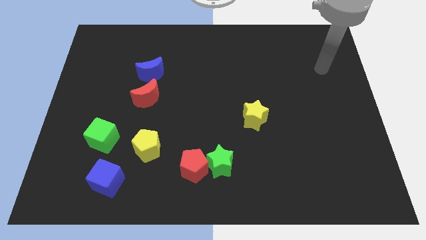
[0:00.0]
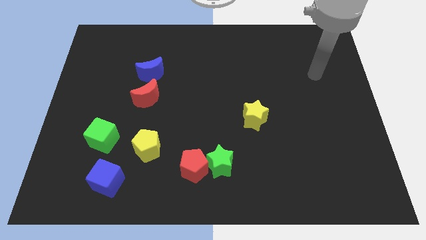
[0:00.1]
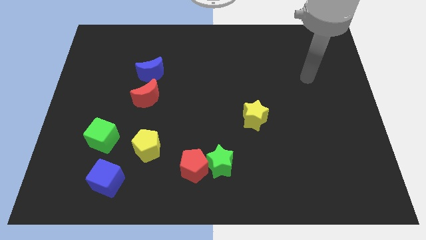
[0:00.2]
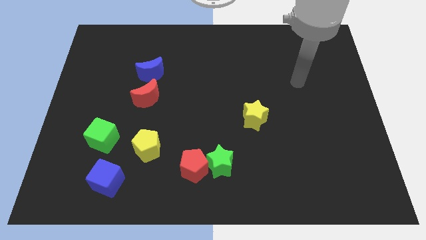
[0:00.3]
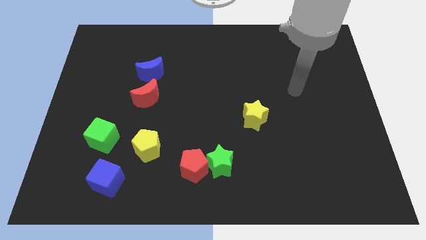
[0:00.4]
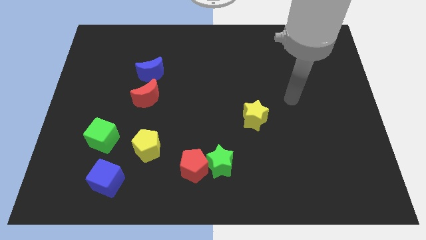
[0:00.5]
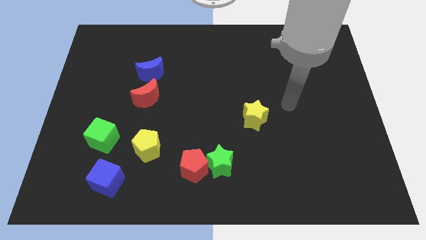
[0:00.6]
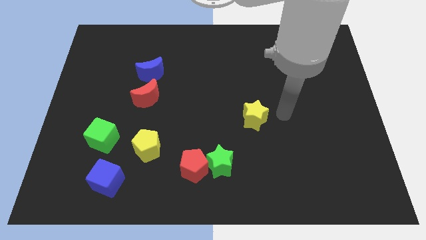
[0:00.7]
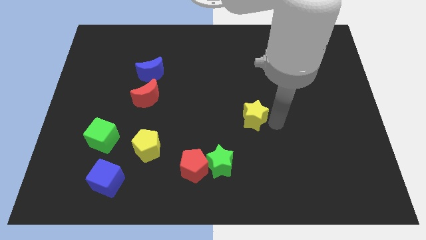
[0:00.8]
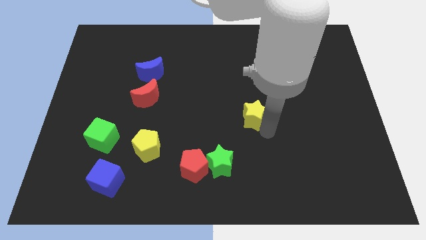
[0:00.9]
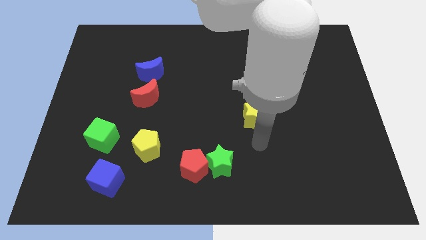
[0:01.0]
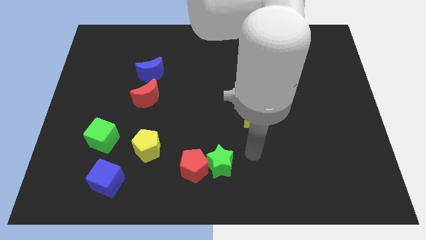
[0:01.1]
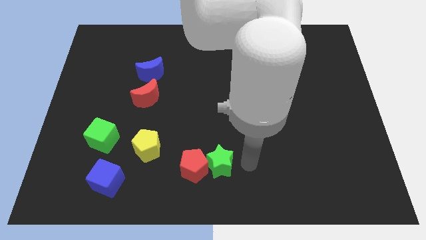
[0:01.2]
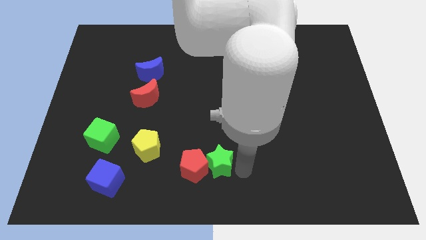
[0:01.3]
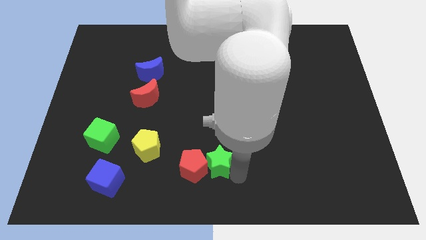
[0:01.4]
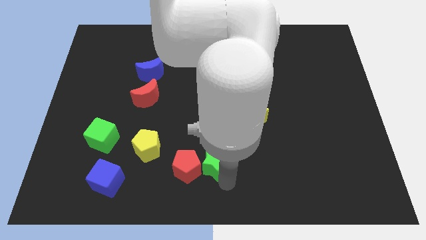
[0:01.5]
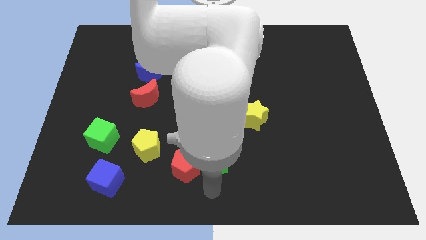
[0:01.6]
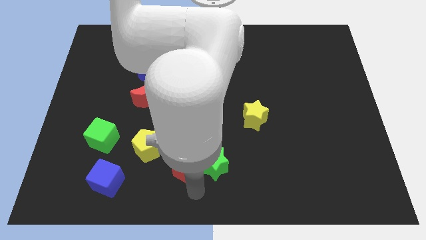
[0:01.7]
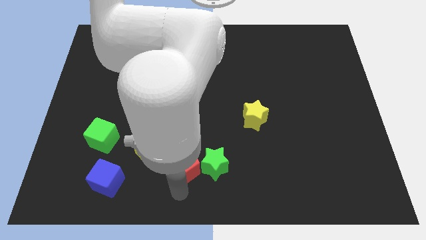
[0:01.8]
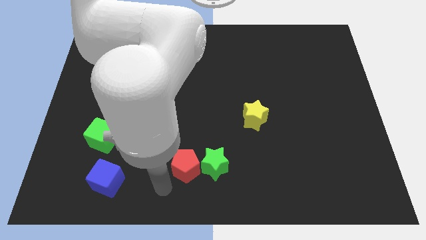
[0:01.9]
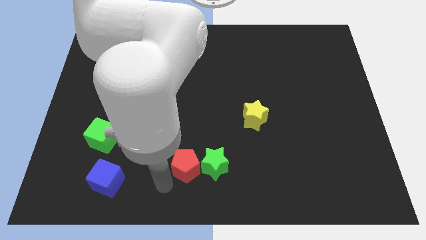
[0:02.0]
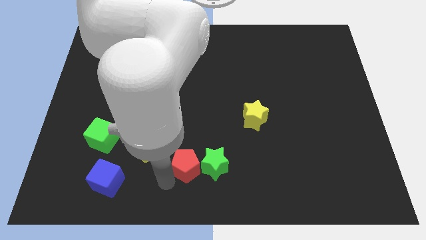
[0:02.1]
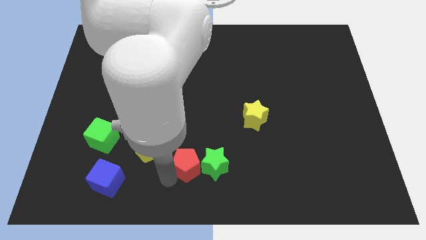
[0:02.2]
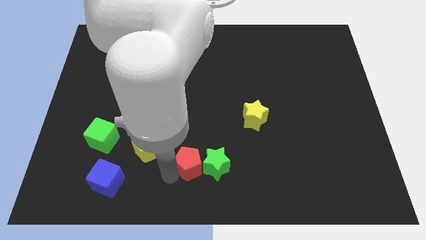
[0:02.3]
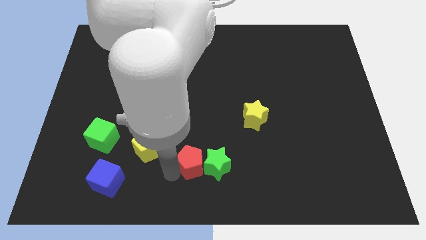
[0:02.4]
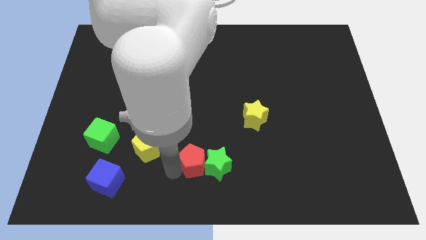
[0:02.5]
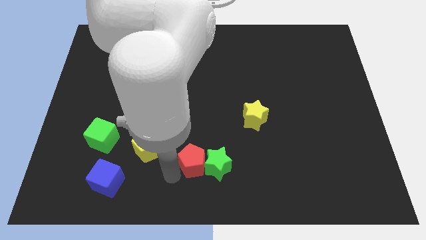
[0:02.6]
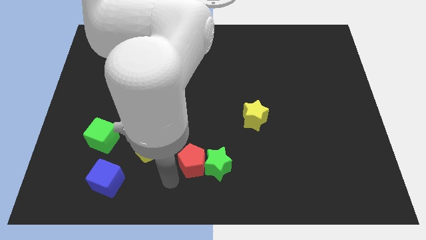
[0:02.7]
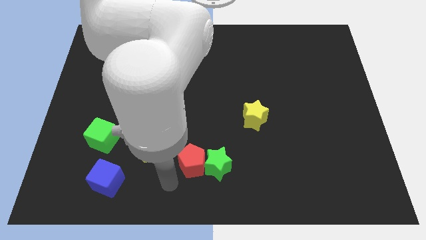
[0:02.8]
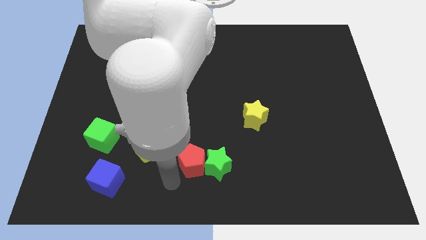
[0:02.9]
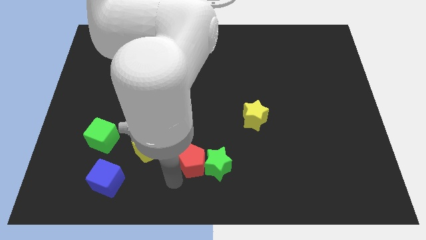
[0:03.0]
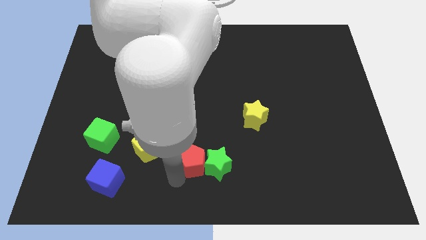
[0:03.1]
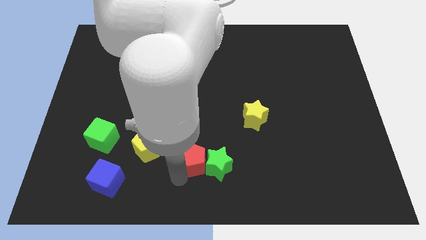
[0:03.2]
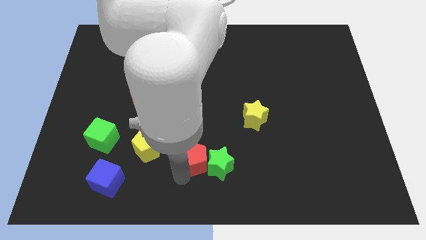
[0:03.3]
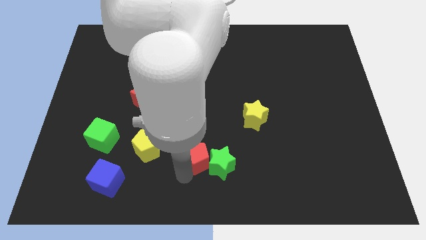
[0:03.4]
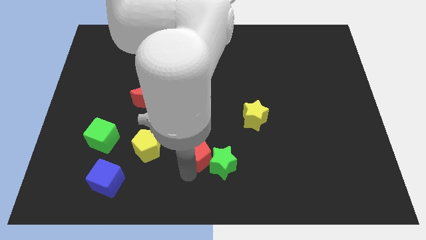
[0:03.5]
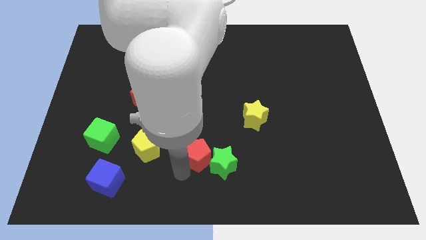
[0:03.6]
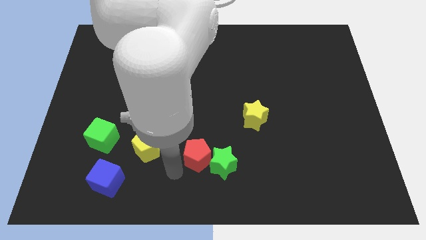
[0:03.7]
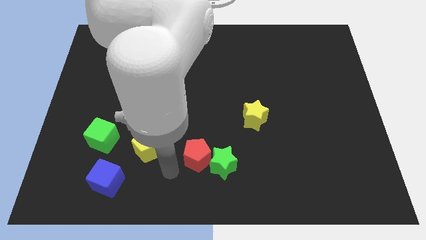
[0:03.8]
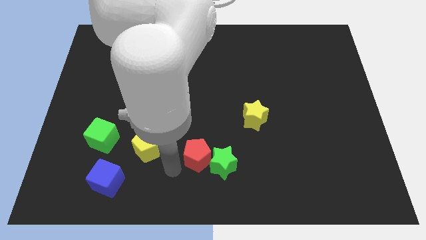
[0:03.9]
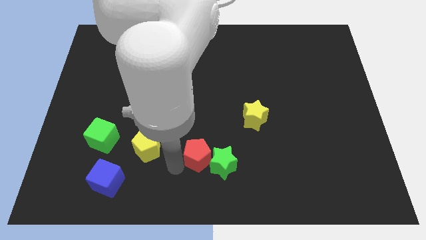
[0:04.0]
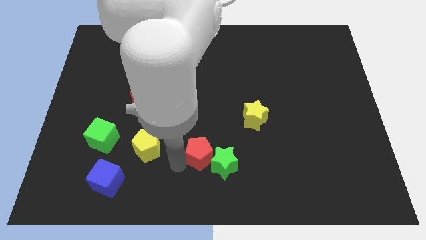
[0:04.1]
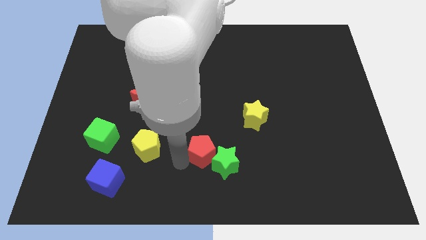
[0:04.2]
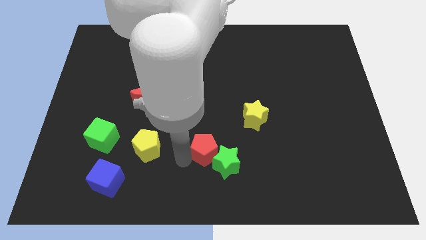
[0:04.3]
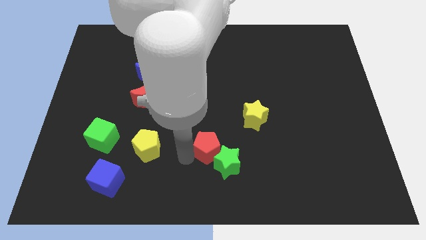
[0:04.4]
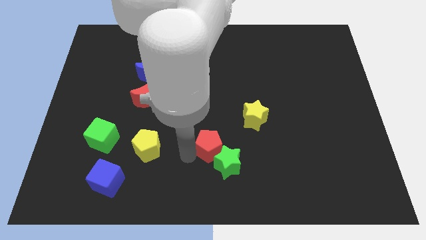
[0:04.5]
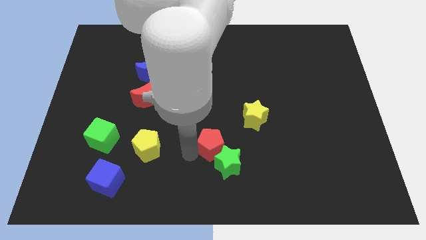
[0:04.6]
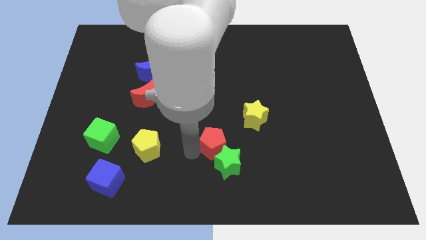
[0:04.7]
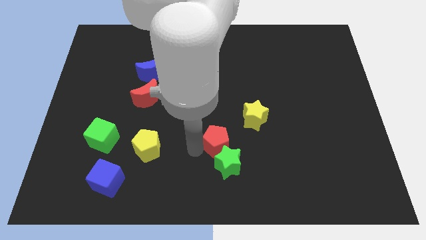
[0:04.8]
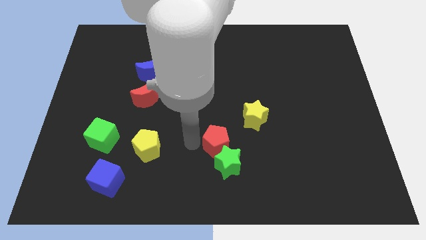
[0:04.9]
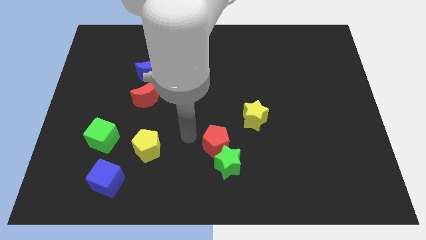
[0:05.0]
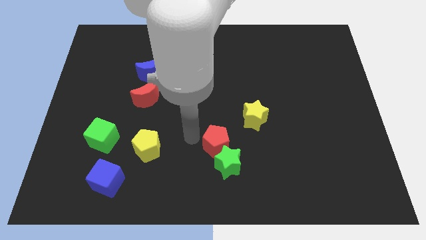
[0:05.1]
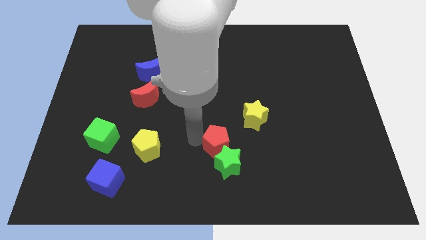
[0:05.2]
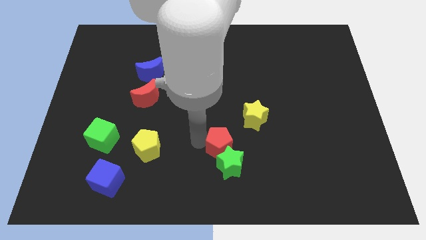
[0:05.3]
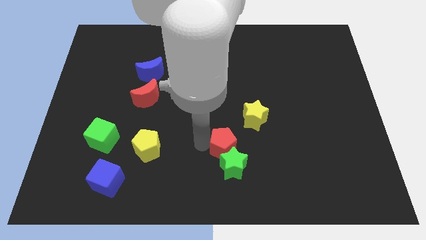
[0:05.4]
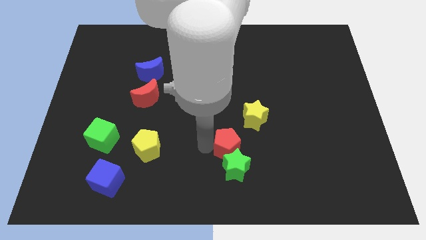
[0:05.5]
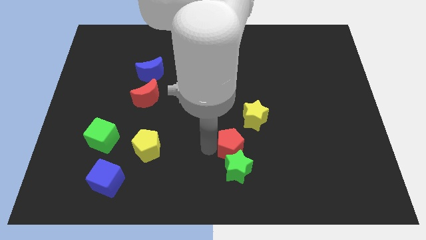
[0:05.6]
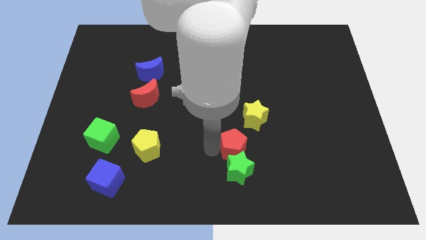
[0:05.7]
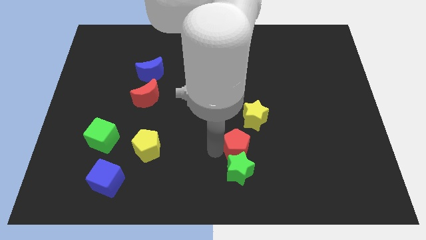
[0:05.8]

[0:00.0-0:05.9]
push the red pentagon to the bottom of the yellow star
